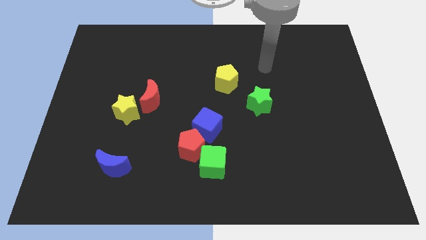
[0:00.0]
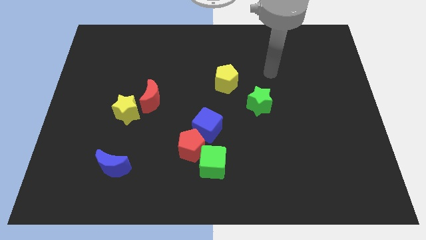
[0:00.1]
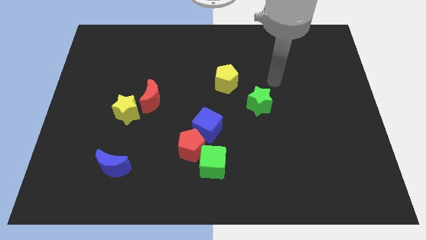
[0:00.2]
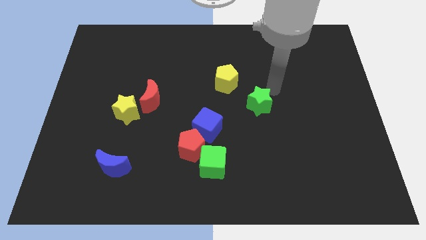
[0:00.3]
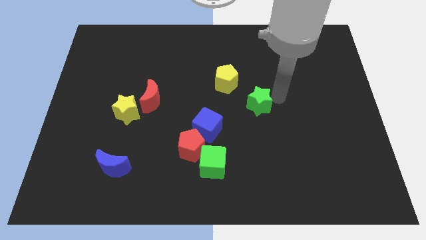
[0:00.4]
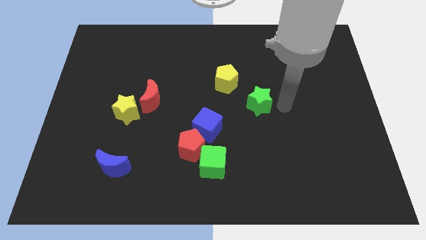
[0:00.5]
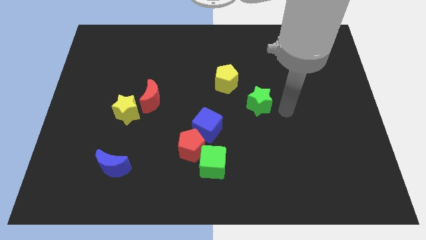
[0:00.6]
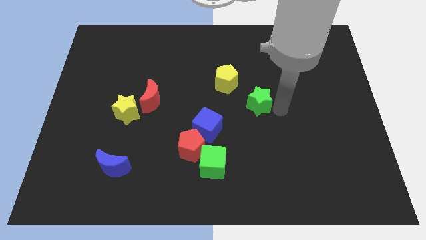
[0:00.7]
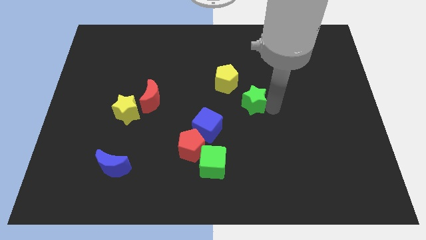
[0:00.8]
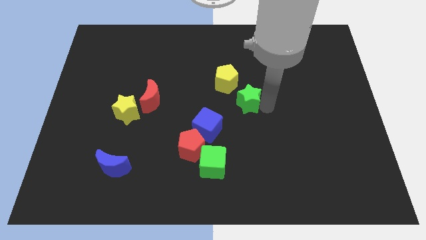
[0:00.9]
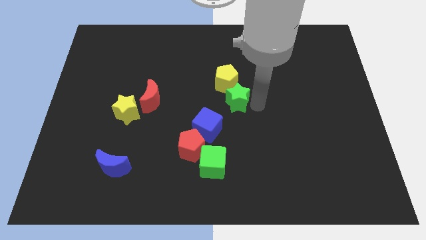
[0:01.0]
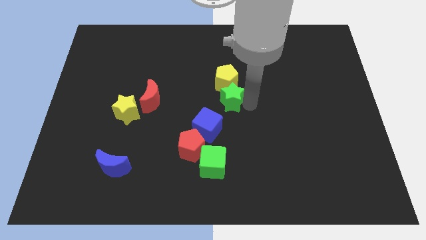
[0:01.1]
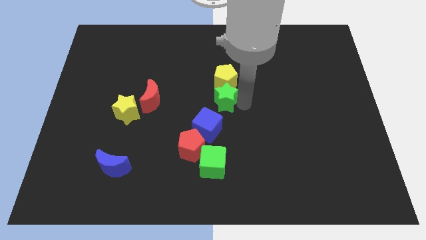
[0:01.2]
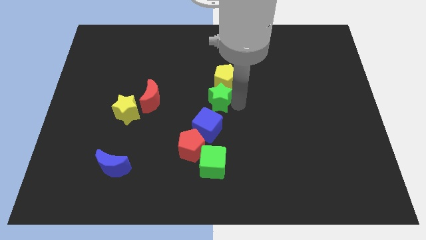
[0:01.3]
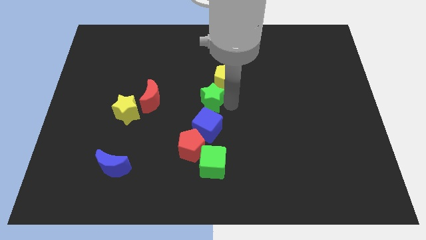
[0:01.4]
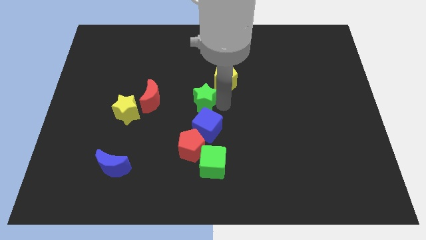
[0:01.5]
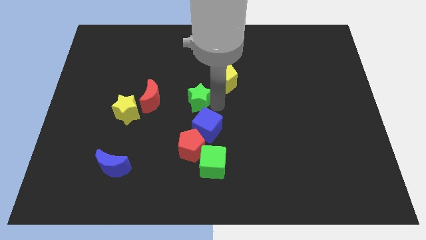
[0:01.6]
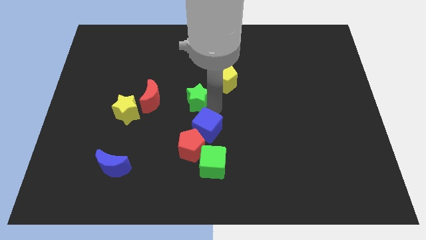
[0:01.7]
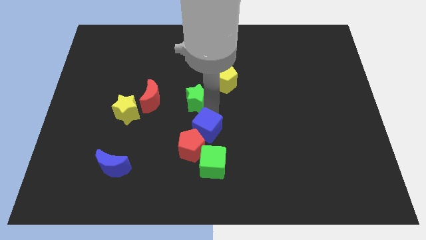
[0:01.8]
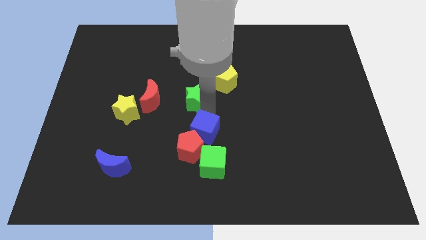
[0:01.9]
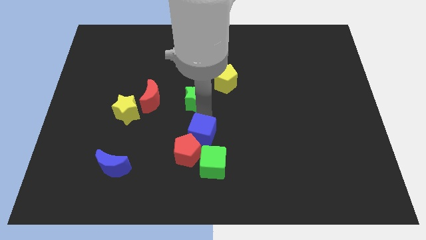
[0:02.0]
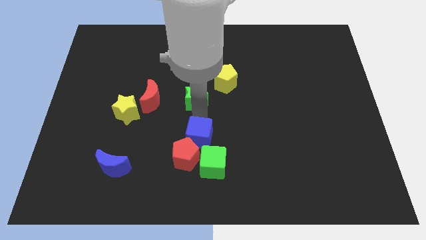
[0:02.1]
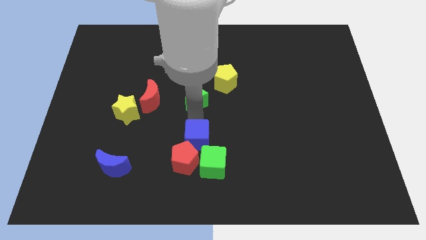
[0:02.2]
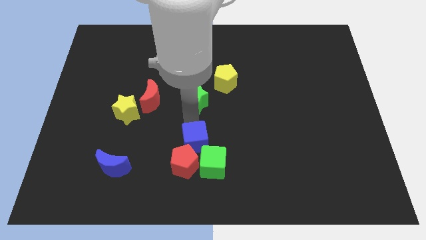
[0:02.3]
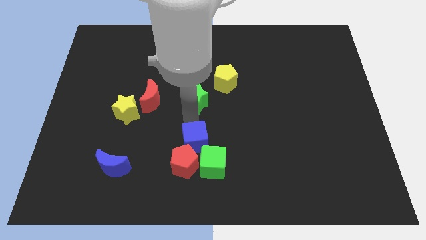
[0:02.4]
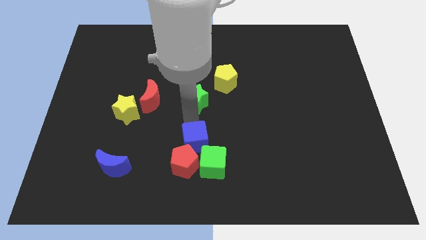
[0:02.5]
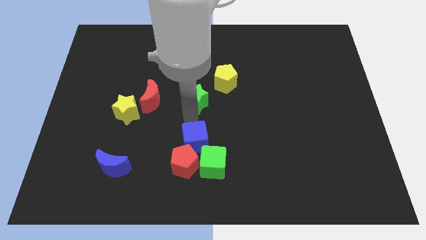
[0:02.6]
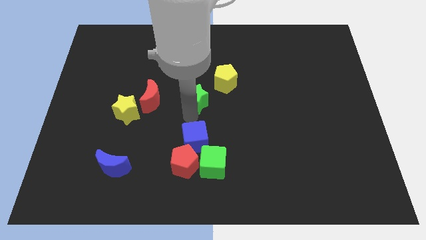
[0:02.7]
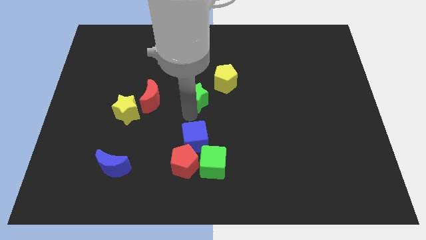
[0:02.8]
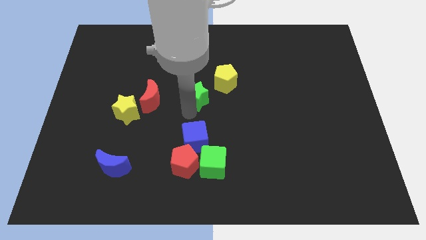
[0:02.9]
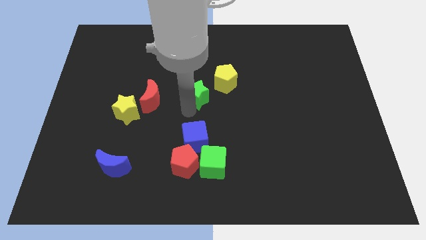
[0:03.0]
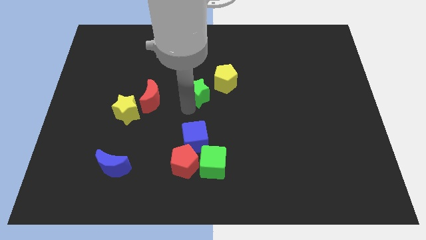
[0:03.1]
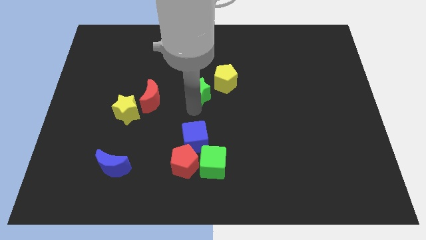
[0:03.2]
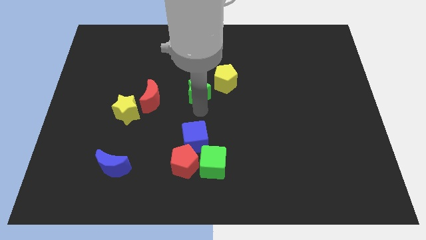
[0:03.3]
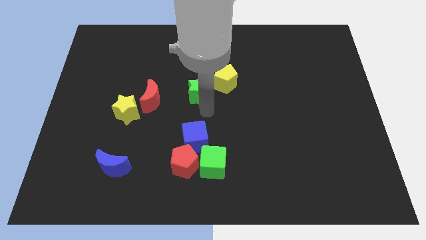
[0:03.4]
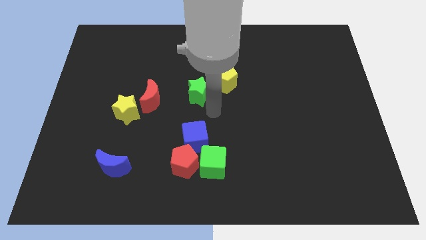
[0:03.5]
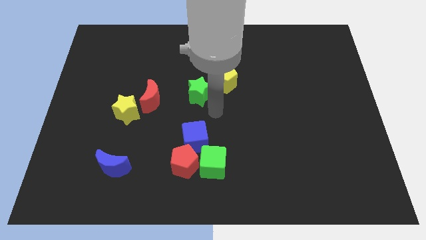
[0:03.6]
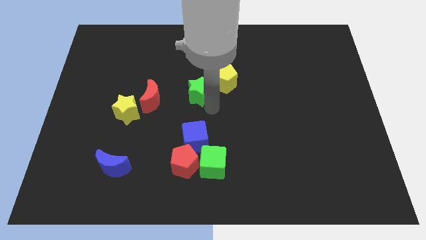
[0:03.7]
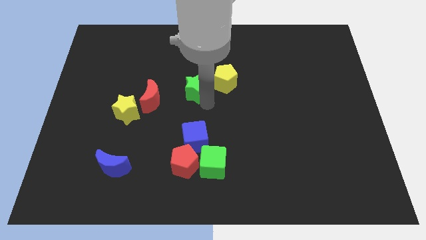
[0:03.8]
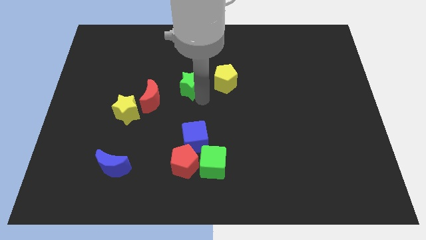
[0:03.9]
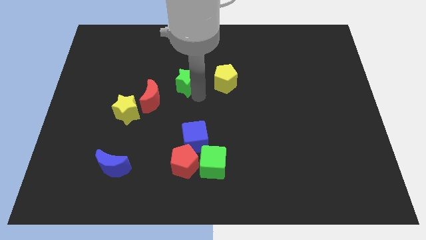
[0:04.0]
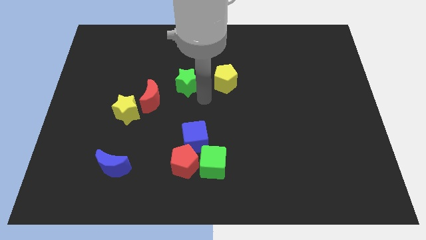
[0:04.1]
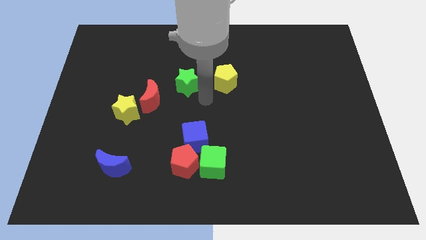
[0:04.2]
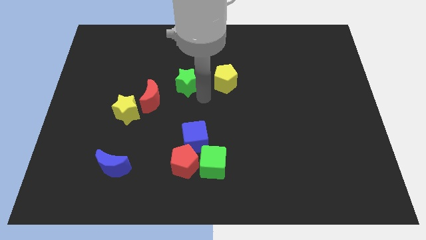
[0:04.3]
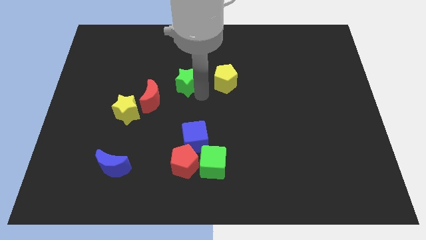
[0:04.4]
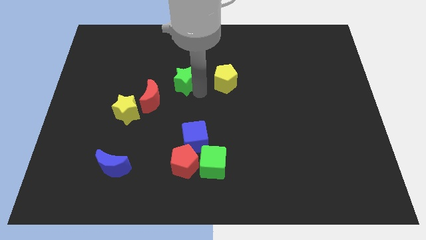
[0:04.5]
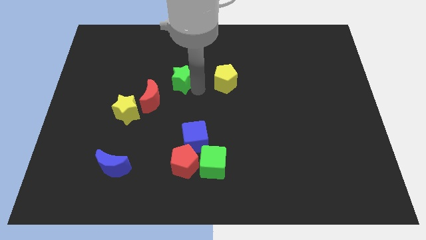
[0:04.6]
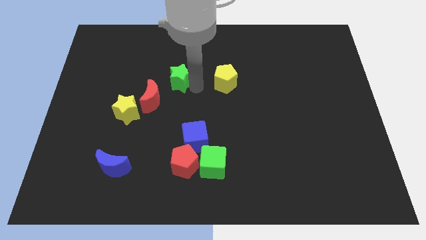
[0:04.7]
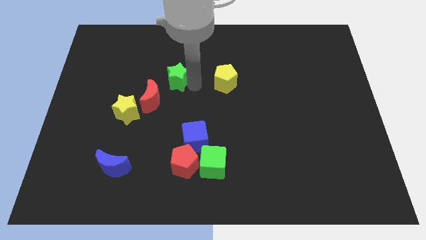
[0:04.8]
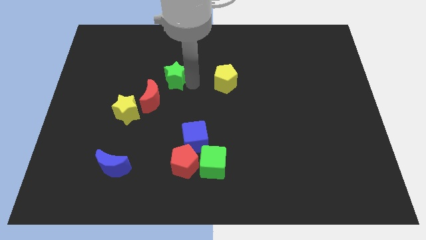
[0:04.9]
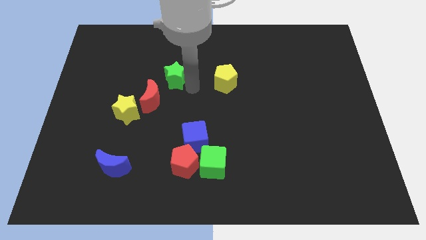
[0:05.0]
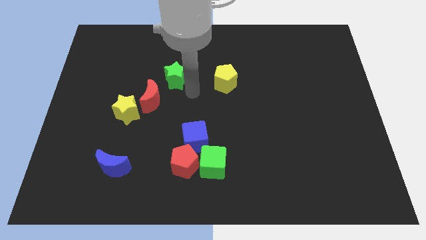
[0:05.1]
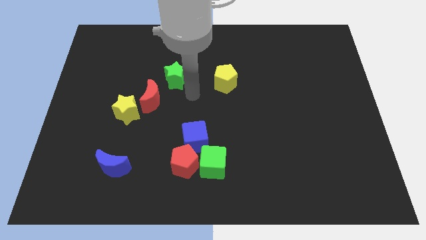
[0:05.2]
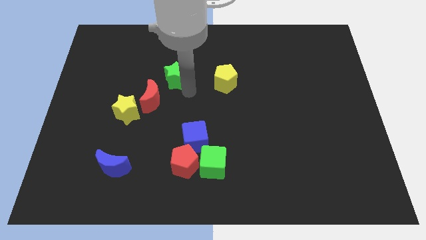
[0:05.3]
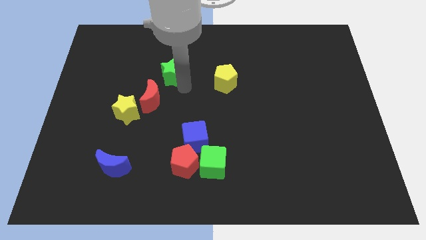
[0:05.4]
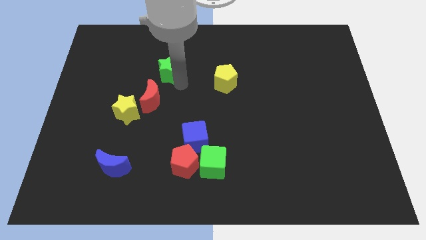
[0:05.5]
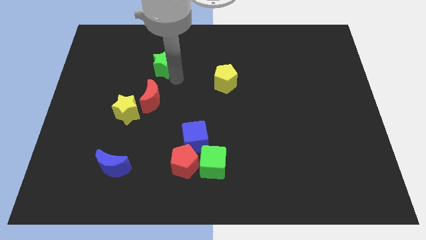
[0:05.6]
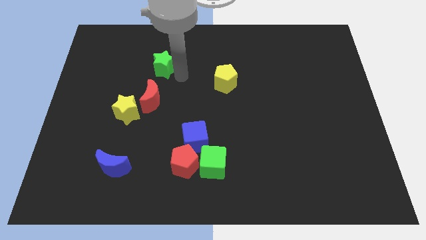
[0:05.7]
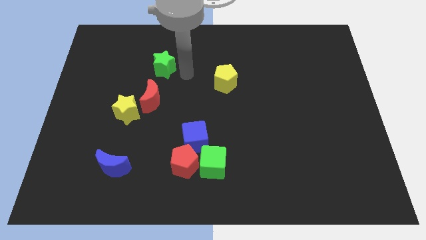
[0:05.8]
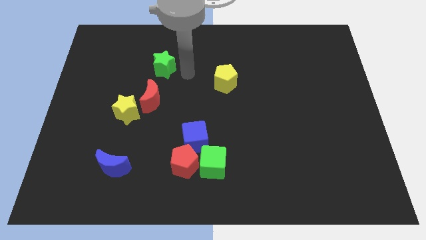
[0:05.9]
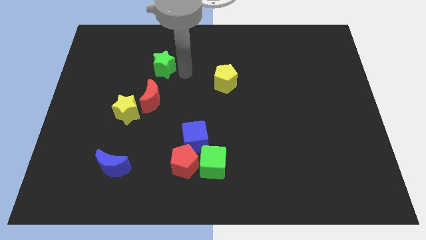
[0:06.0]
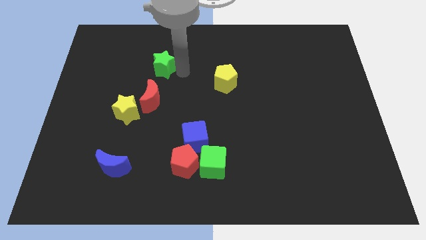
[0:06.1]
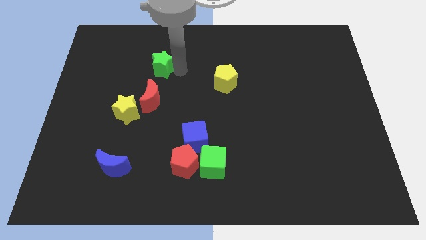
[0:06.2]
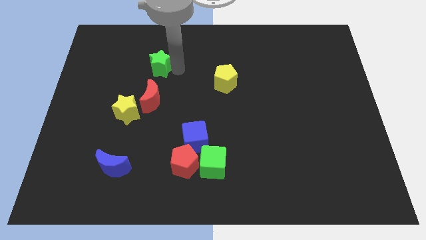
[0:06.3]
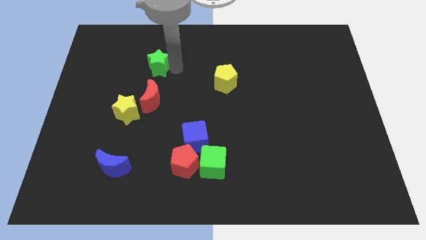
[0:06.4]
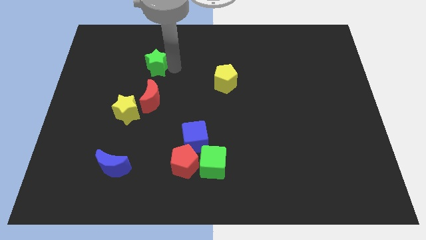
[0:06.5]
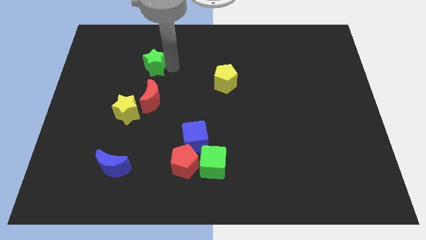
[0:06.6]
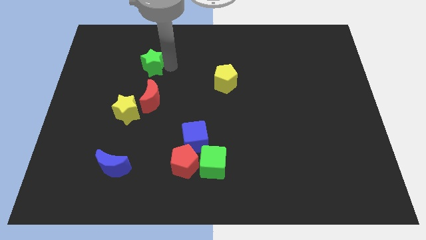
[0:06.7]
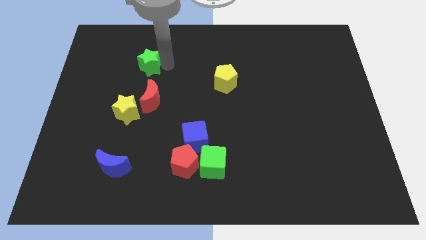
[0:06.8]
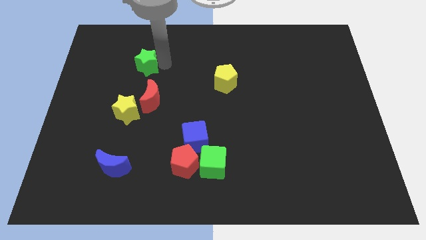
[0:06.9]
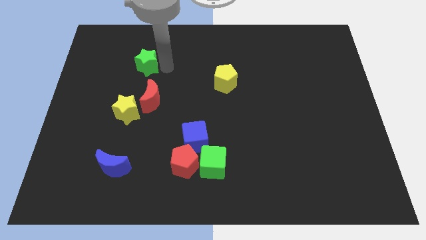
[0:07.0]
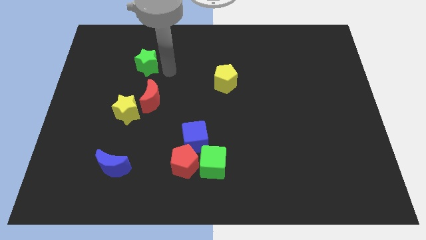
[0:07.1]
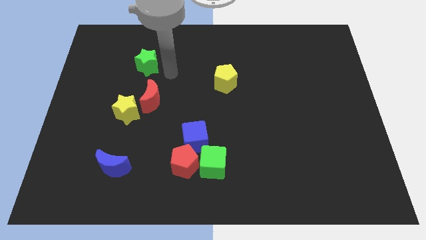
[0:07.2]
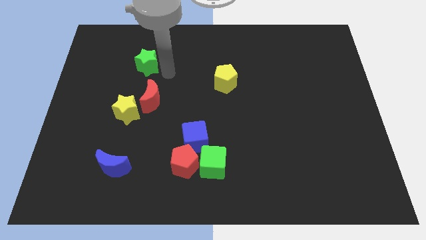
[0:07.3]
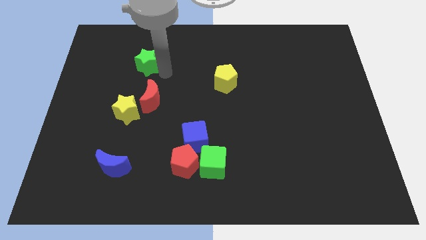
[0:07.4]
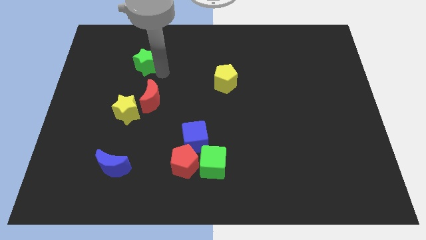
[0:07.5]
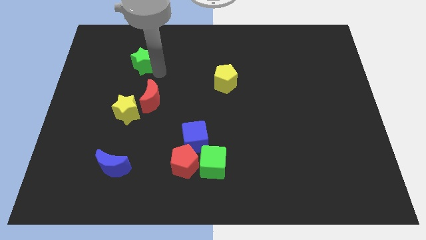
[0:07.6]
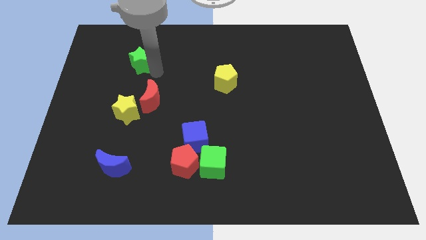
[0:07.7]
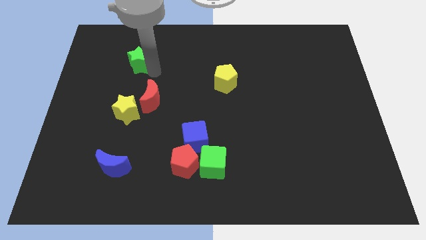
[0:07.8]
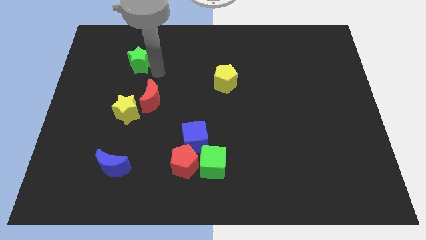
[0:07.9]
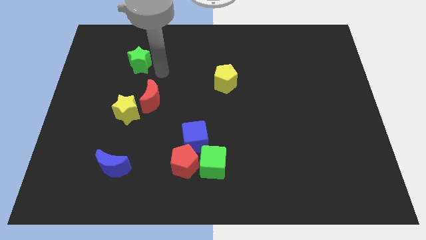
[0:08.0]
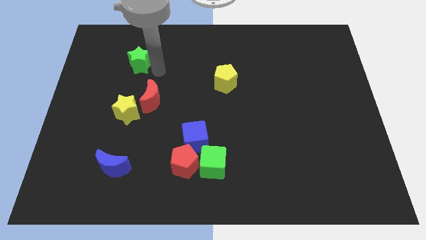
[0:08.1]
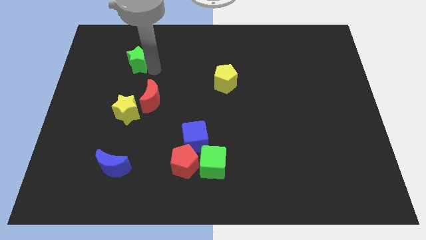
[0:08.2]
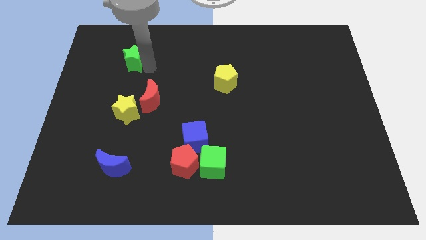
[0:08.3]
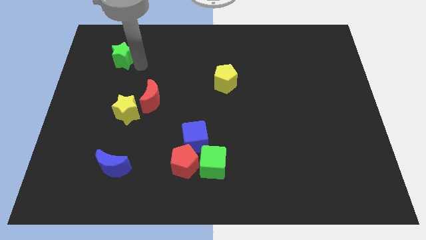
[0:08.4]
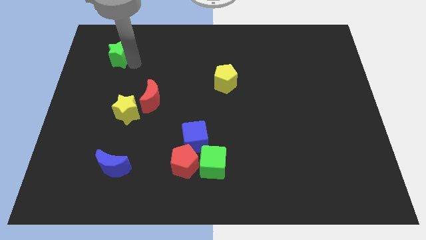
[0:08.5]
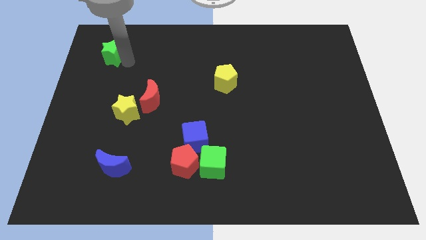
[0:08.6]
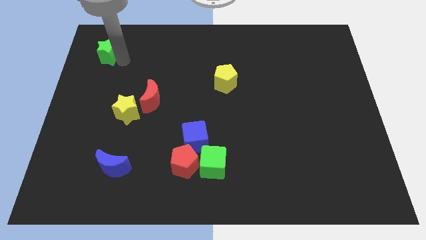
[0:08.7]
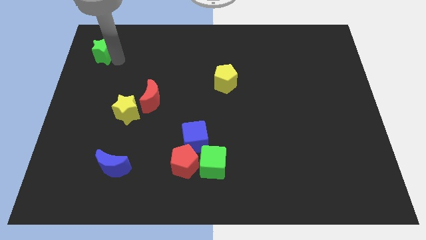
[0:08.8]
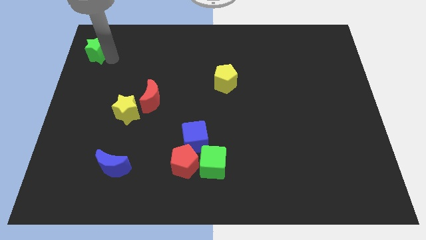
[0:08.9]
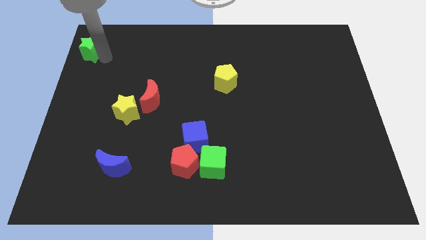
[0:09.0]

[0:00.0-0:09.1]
put the green star to the top left corner
